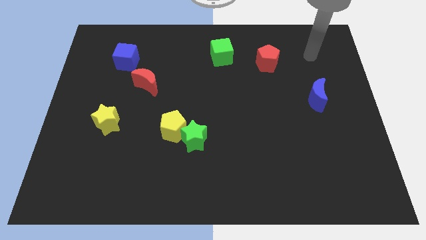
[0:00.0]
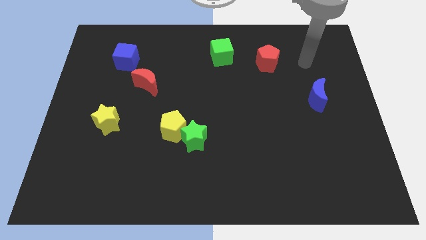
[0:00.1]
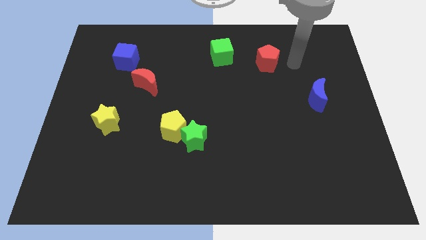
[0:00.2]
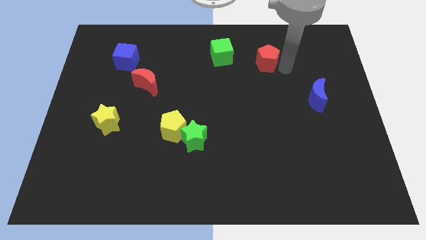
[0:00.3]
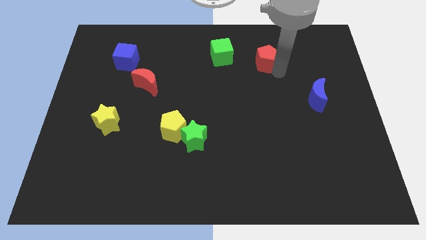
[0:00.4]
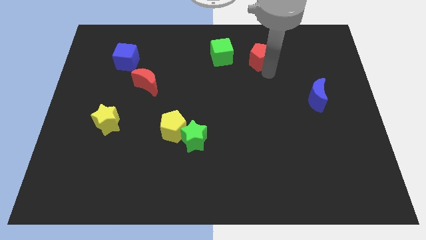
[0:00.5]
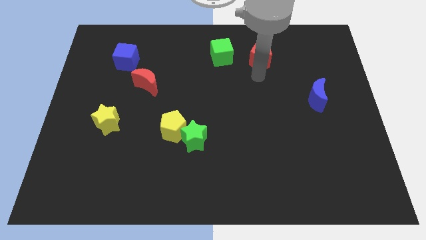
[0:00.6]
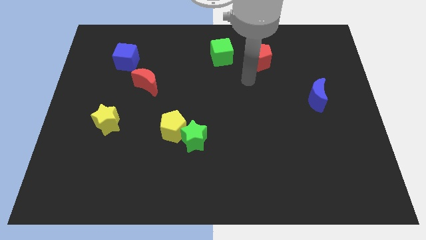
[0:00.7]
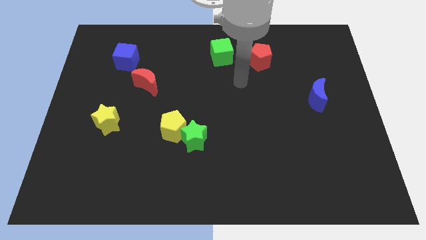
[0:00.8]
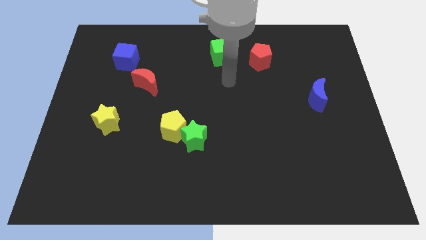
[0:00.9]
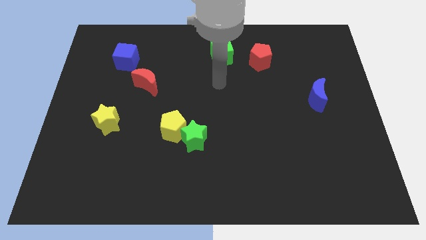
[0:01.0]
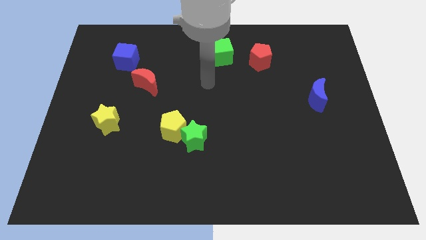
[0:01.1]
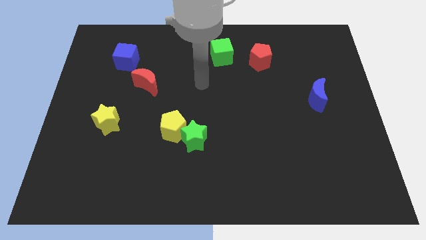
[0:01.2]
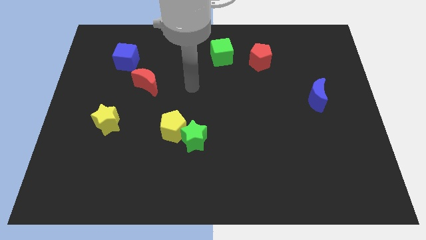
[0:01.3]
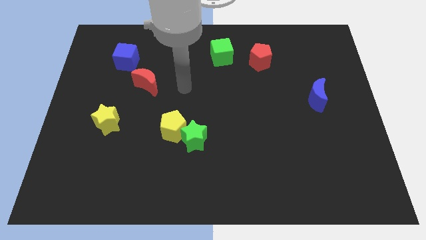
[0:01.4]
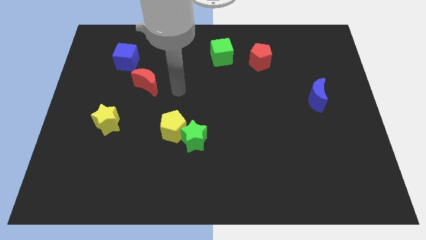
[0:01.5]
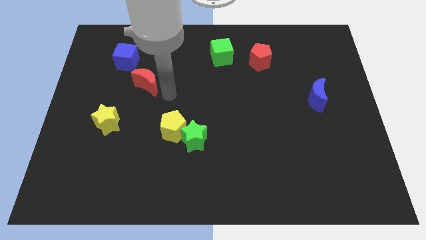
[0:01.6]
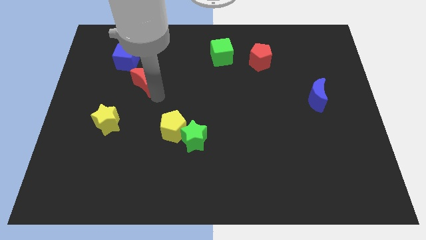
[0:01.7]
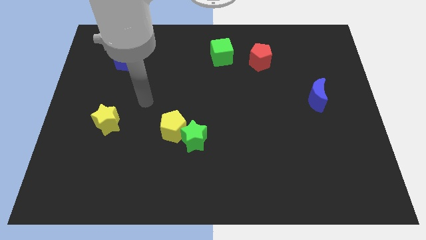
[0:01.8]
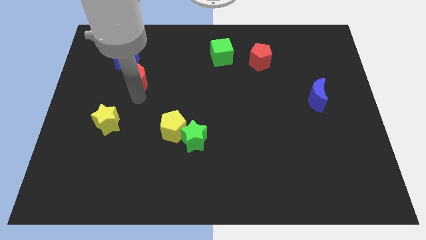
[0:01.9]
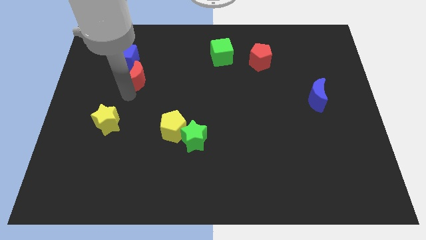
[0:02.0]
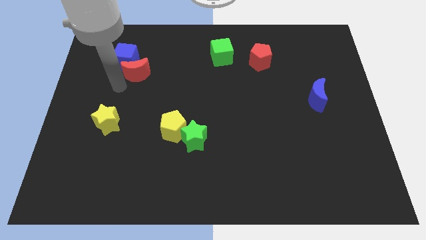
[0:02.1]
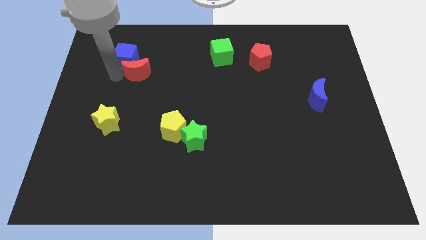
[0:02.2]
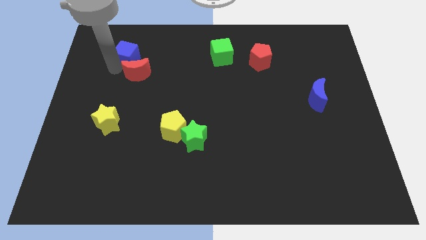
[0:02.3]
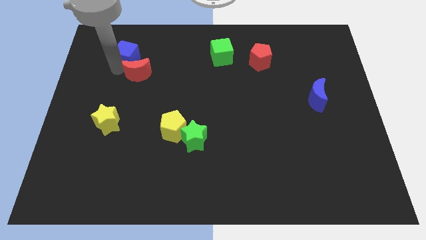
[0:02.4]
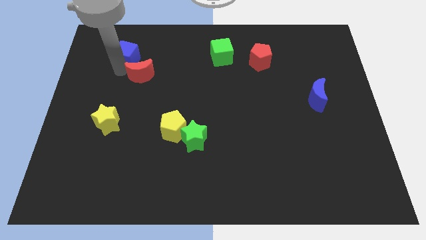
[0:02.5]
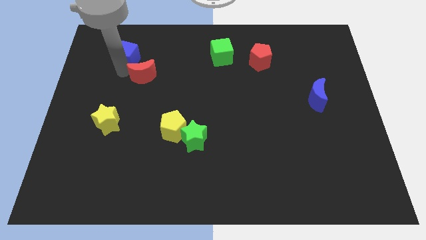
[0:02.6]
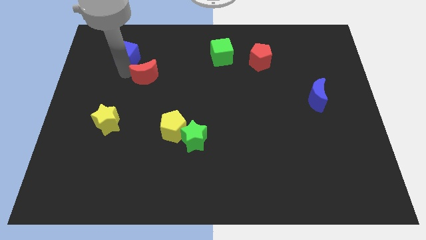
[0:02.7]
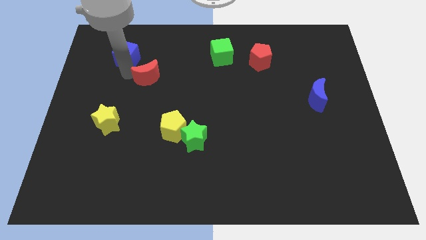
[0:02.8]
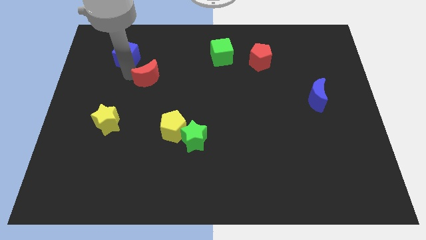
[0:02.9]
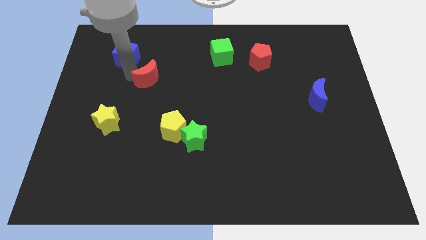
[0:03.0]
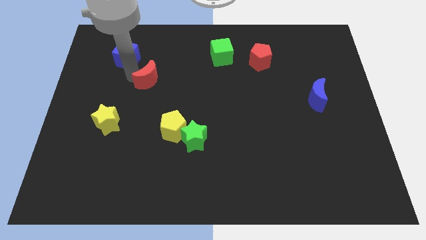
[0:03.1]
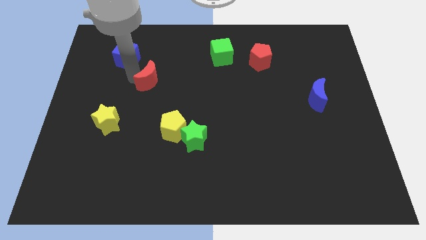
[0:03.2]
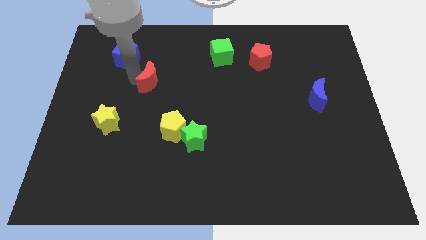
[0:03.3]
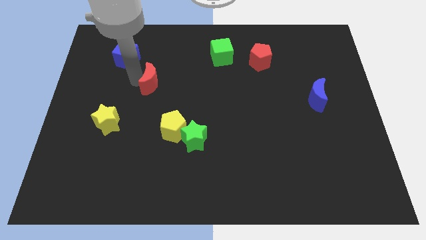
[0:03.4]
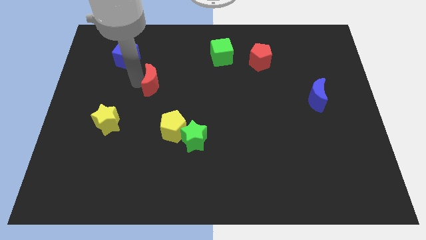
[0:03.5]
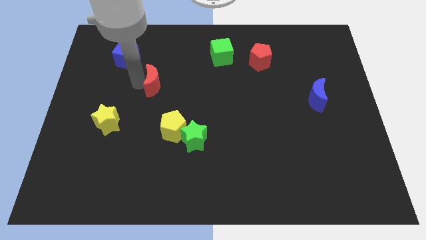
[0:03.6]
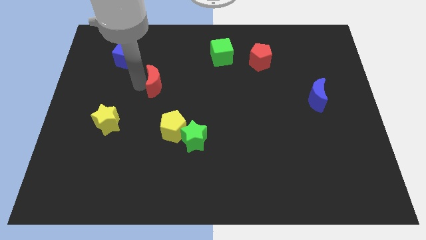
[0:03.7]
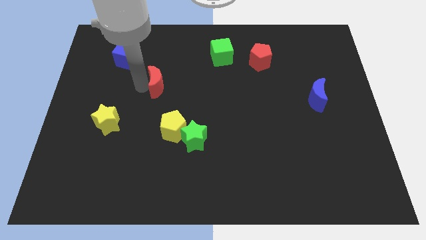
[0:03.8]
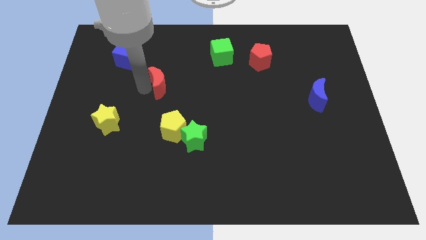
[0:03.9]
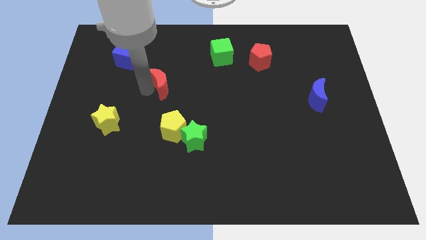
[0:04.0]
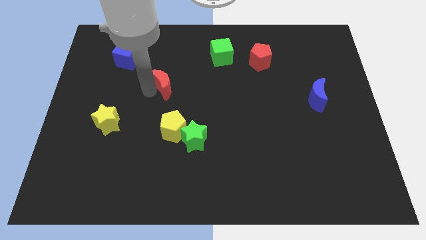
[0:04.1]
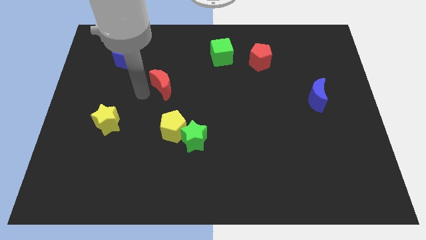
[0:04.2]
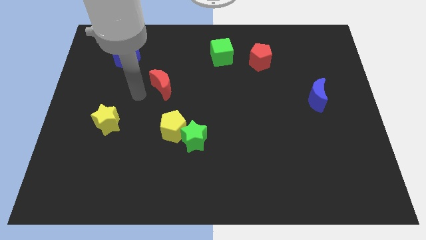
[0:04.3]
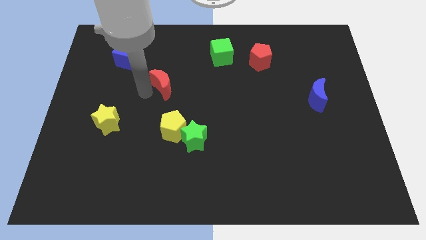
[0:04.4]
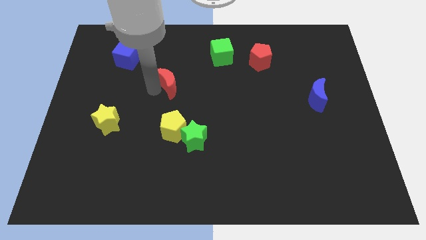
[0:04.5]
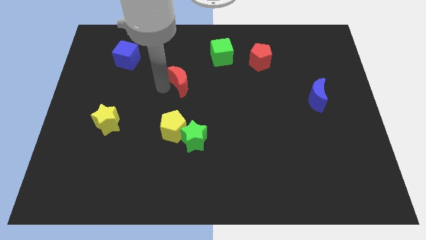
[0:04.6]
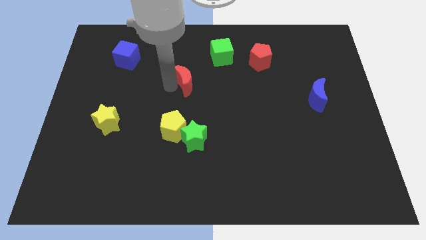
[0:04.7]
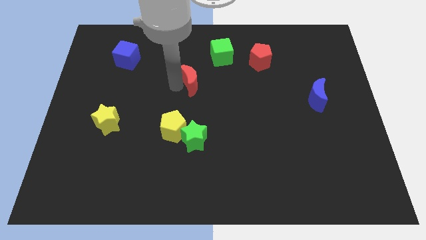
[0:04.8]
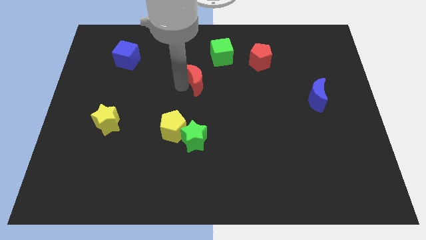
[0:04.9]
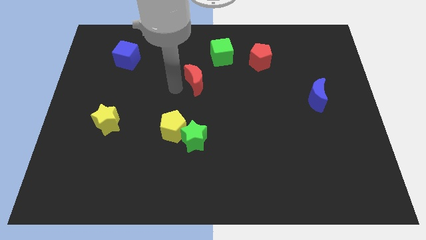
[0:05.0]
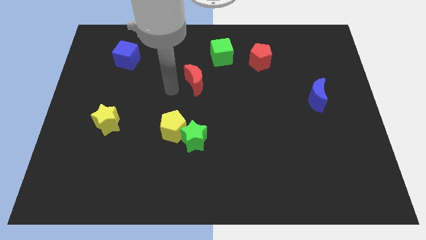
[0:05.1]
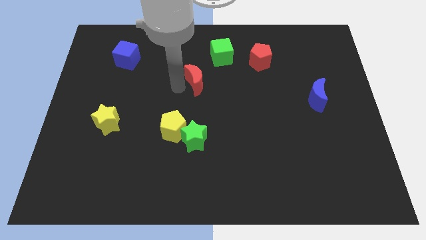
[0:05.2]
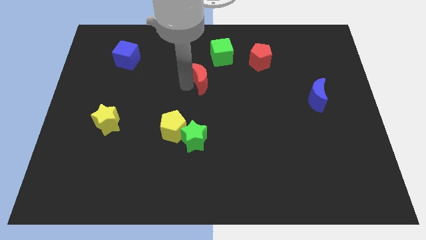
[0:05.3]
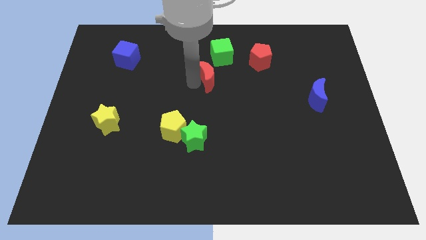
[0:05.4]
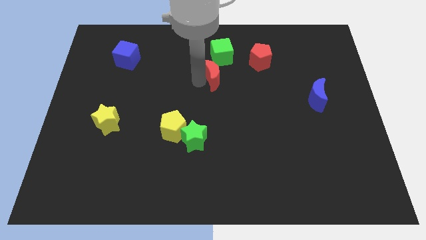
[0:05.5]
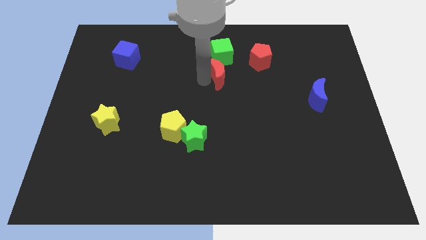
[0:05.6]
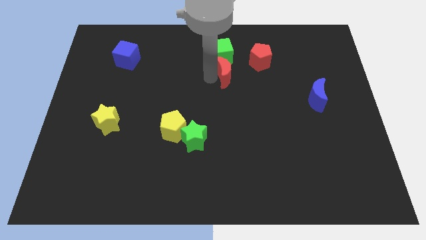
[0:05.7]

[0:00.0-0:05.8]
put the red moon to the bottom left of the red pentagon

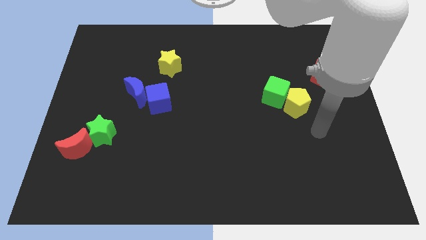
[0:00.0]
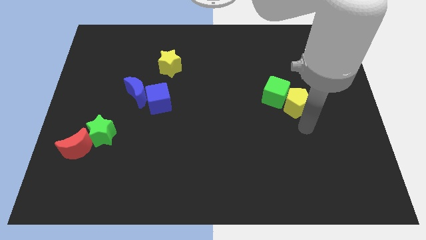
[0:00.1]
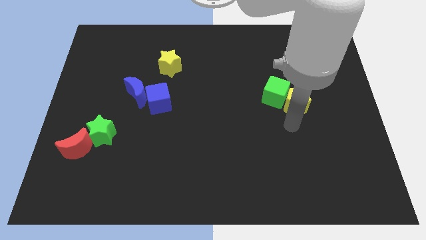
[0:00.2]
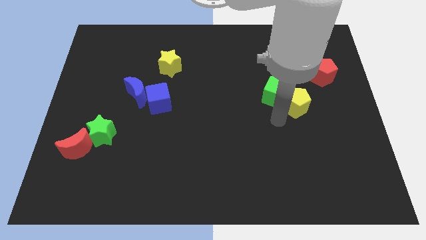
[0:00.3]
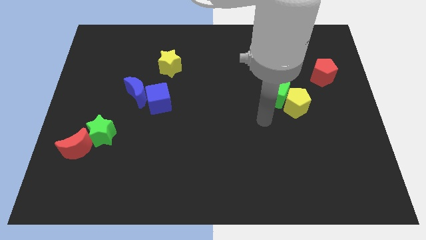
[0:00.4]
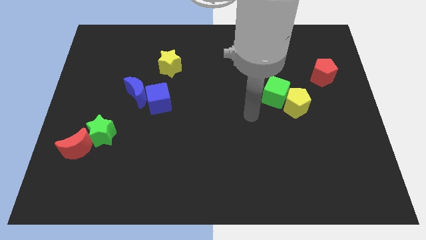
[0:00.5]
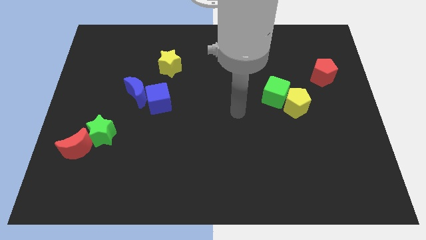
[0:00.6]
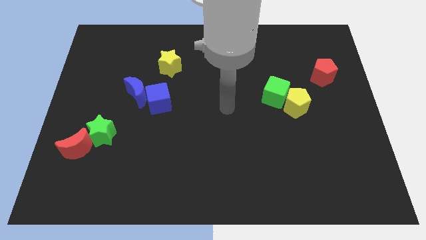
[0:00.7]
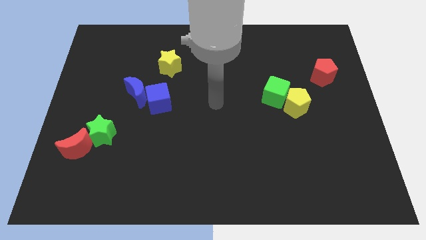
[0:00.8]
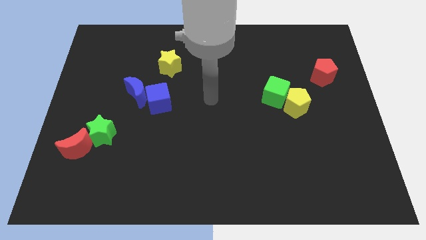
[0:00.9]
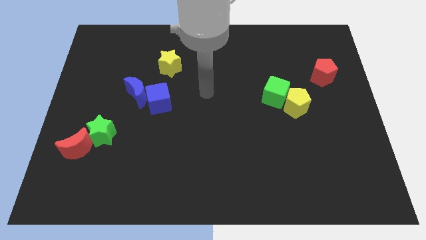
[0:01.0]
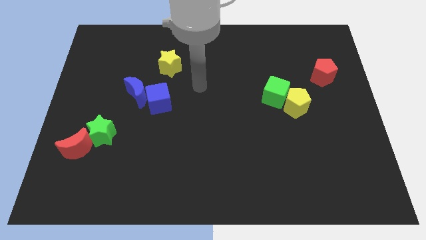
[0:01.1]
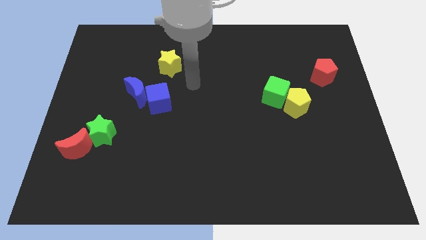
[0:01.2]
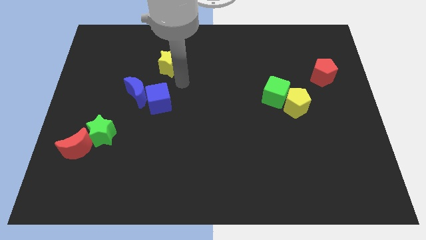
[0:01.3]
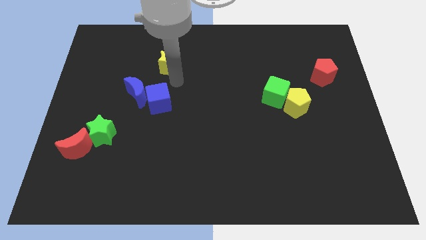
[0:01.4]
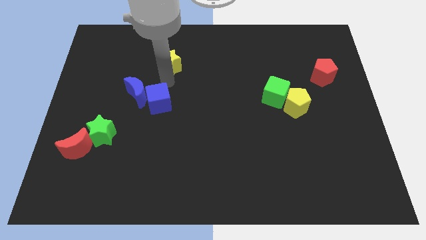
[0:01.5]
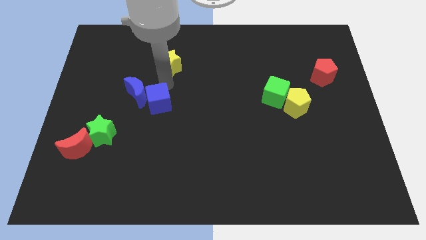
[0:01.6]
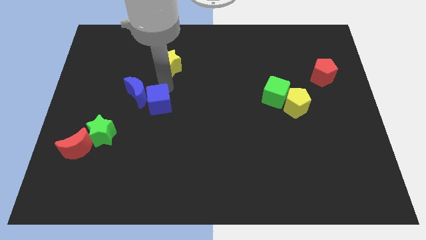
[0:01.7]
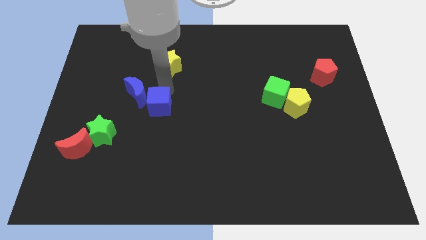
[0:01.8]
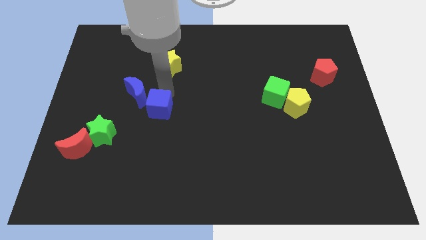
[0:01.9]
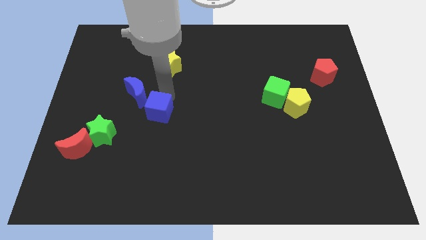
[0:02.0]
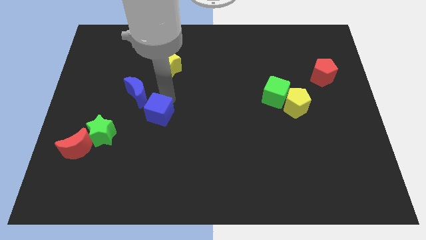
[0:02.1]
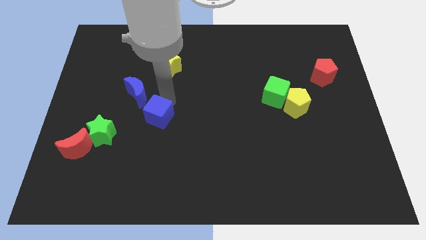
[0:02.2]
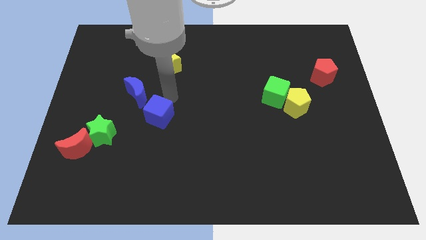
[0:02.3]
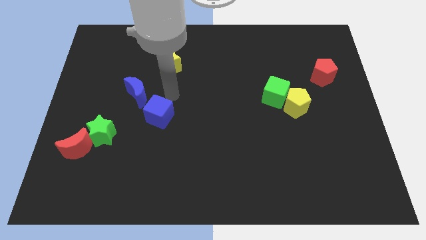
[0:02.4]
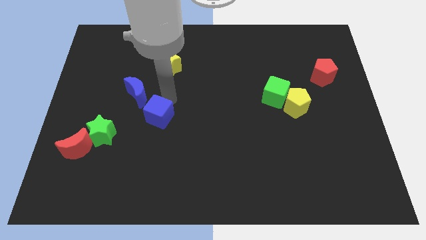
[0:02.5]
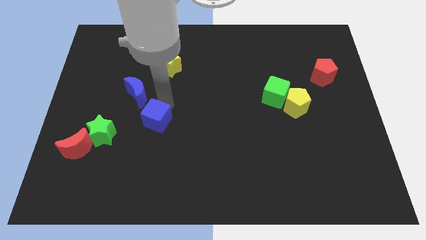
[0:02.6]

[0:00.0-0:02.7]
push the blue cube right of the green star
